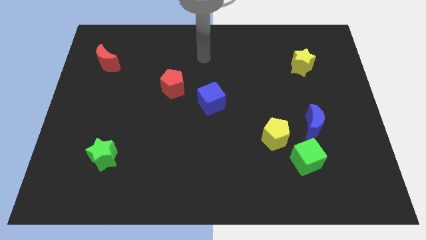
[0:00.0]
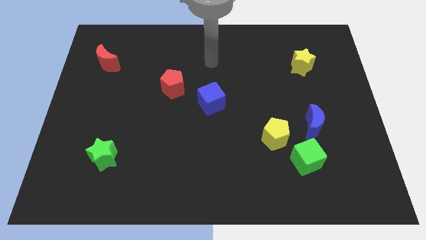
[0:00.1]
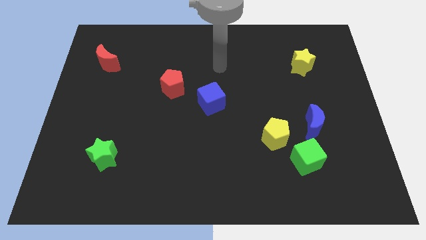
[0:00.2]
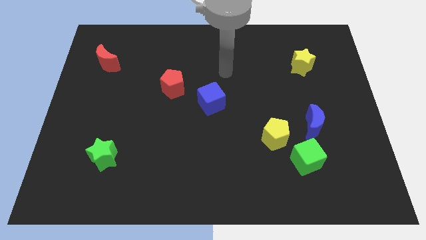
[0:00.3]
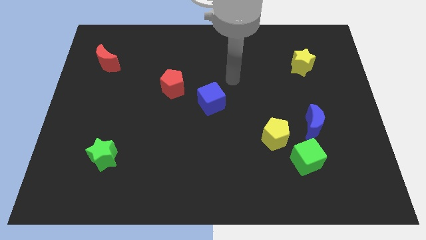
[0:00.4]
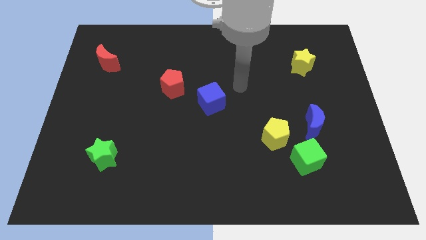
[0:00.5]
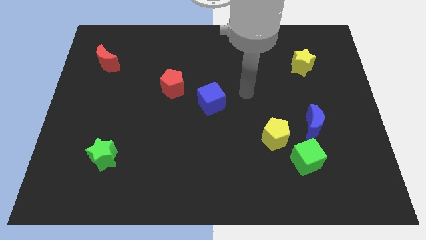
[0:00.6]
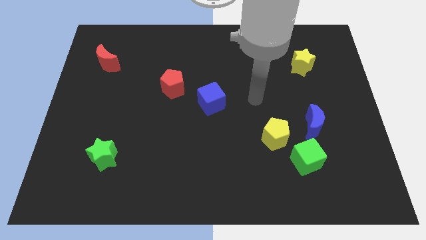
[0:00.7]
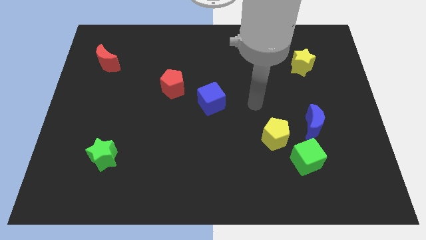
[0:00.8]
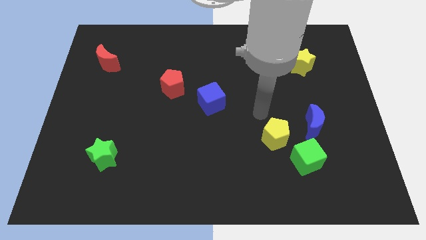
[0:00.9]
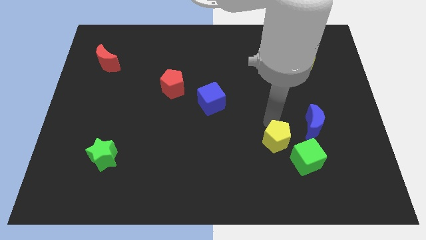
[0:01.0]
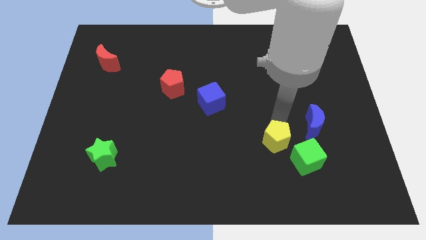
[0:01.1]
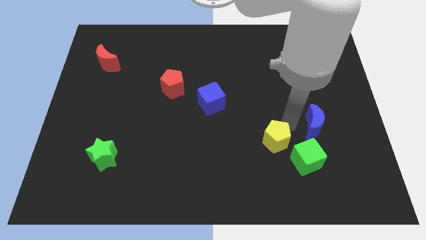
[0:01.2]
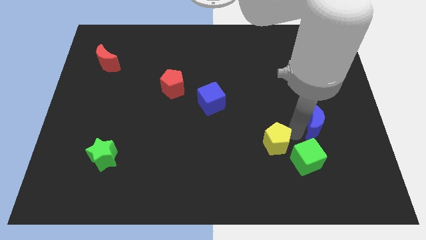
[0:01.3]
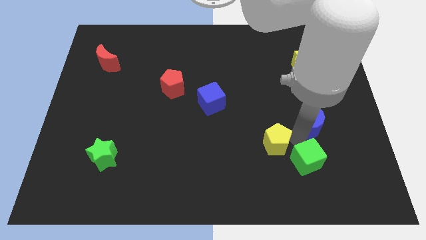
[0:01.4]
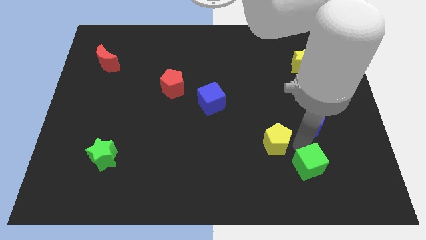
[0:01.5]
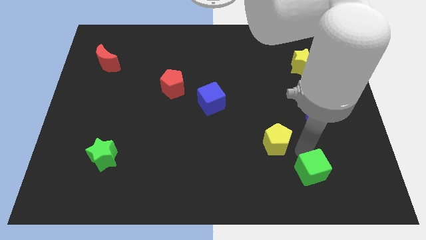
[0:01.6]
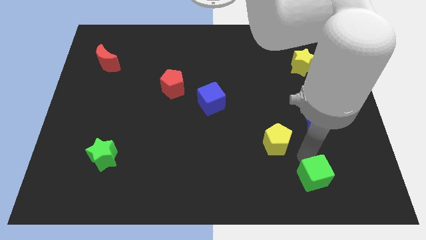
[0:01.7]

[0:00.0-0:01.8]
separate the green cube from the yellow pentagon and blue moon

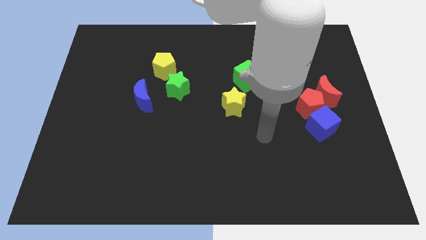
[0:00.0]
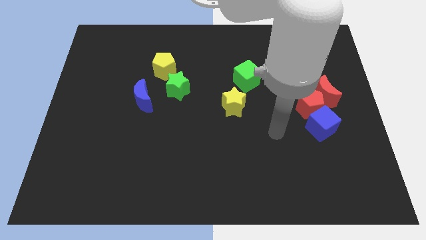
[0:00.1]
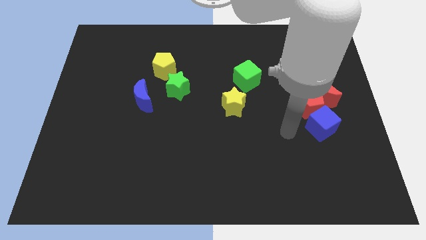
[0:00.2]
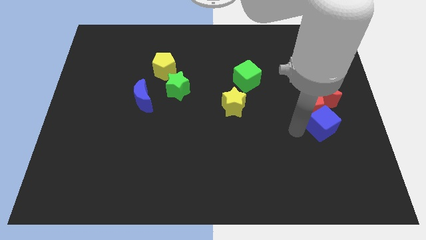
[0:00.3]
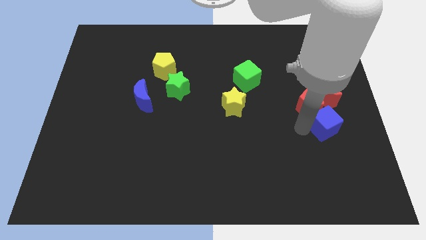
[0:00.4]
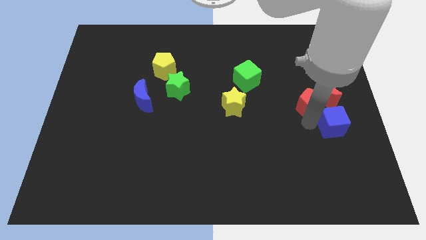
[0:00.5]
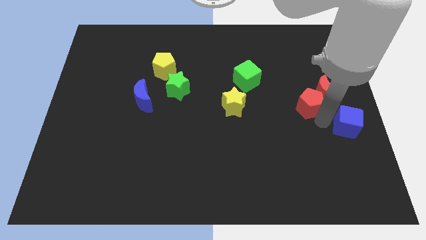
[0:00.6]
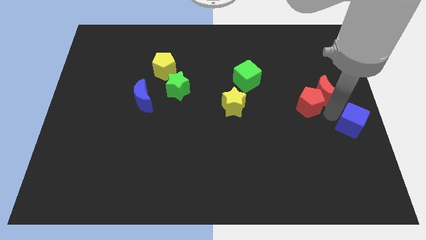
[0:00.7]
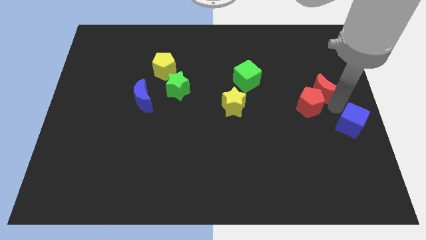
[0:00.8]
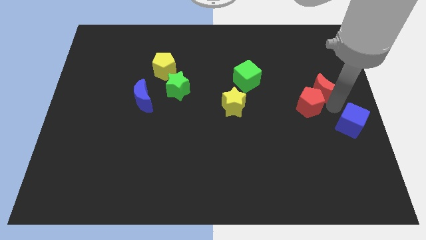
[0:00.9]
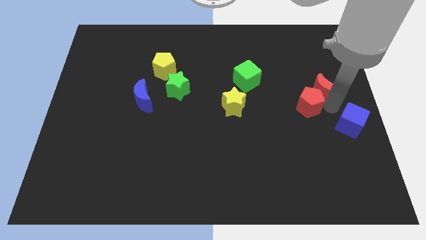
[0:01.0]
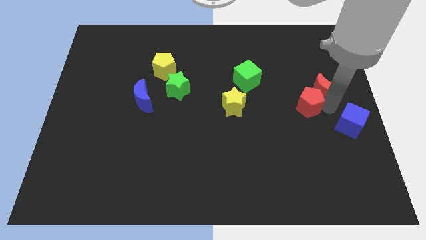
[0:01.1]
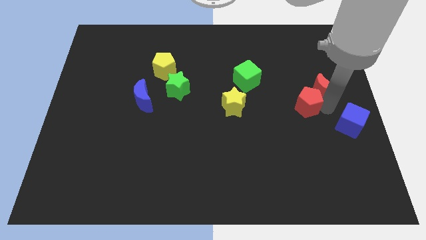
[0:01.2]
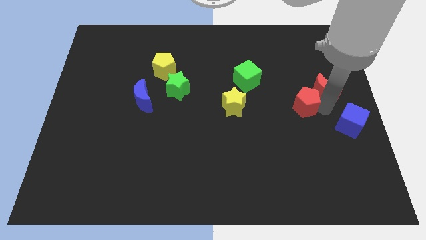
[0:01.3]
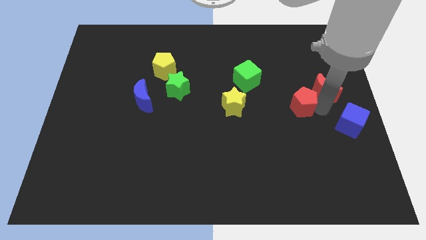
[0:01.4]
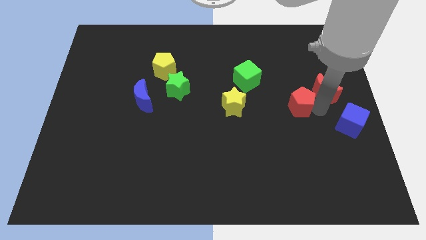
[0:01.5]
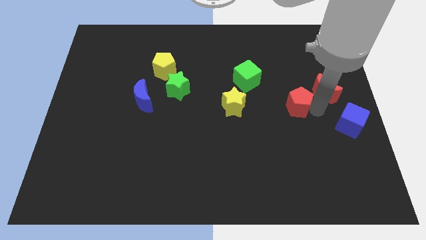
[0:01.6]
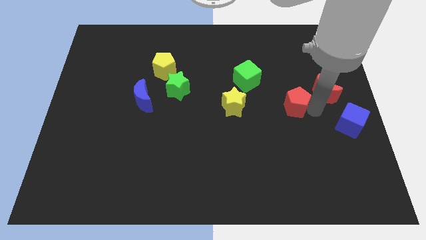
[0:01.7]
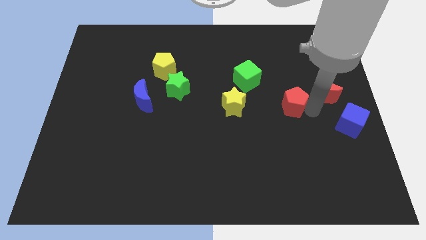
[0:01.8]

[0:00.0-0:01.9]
pull the red pentagon apart from the red moon and blue cube

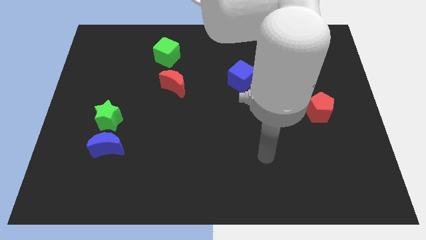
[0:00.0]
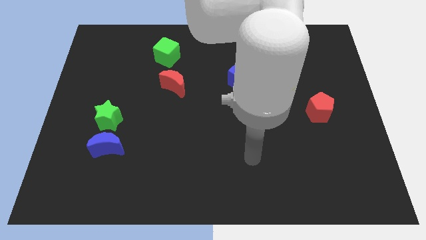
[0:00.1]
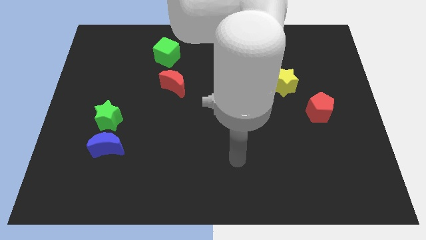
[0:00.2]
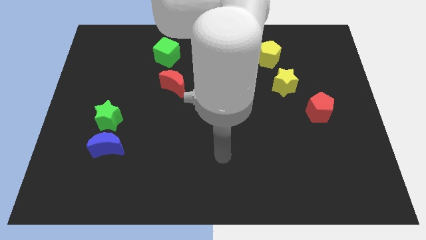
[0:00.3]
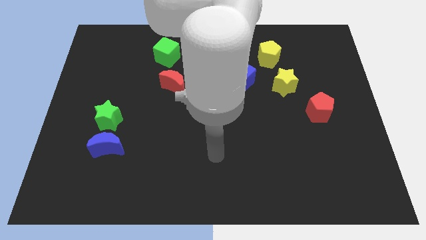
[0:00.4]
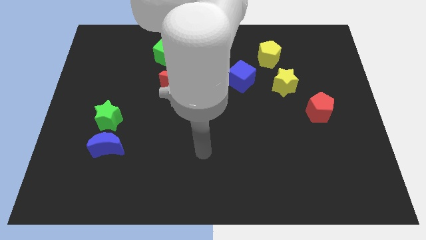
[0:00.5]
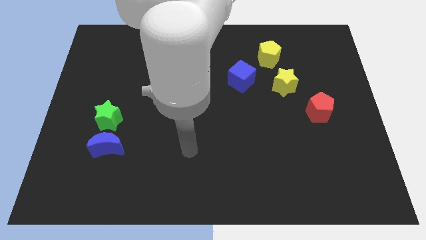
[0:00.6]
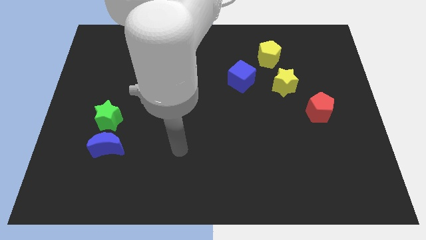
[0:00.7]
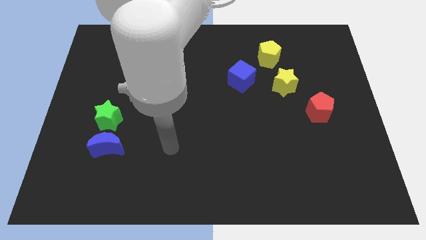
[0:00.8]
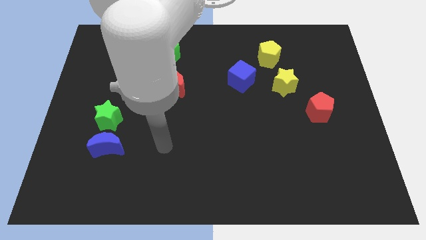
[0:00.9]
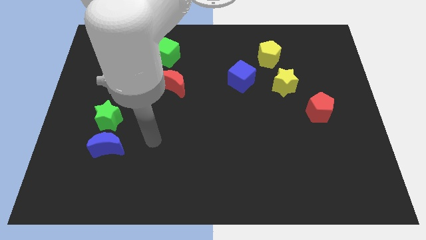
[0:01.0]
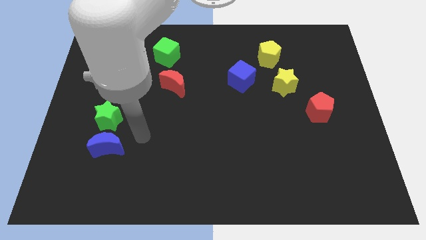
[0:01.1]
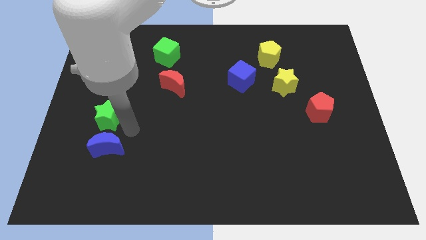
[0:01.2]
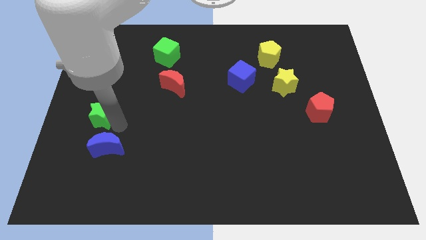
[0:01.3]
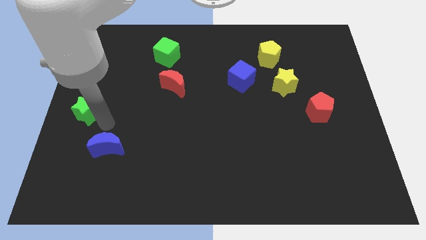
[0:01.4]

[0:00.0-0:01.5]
pull the blue moon apart from the green star

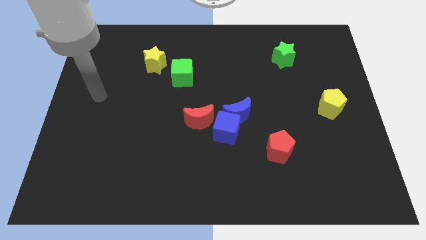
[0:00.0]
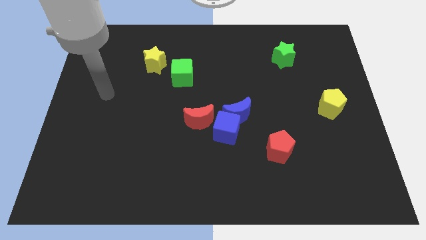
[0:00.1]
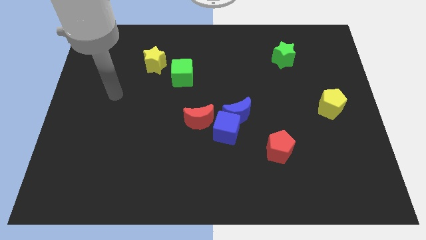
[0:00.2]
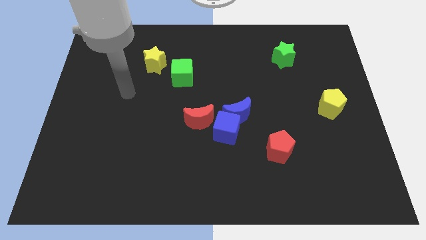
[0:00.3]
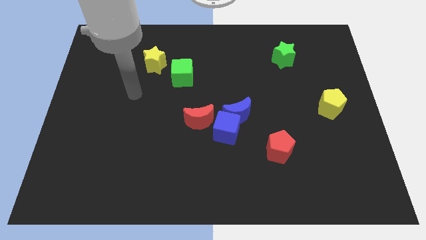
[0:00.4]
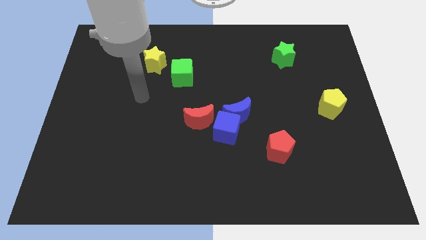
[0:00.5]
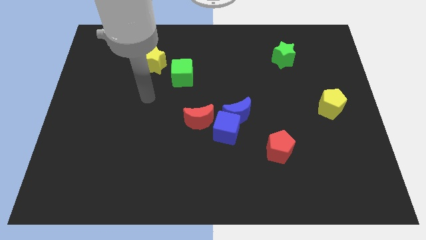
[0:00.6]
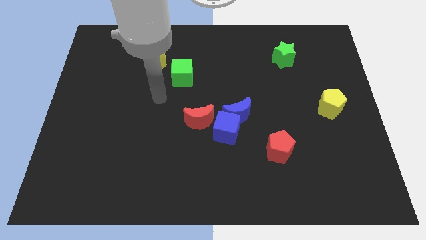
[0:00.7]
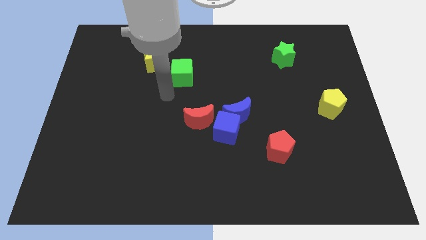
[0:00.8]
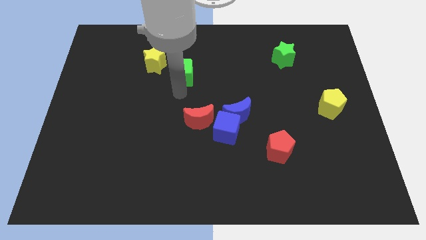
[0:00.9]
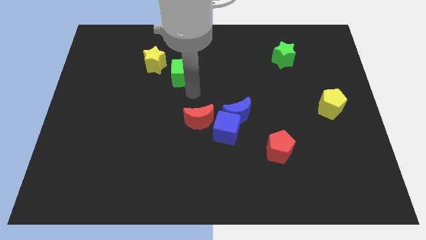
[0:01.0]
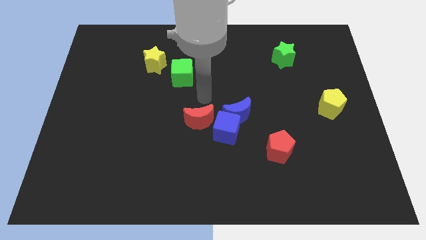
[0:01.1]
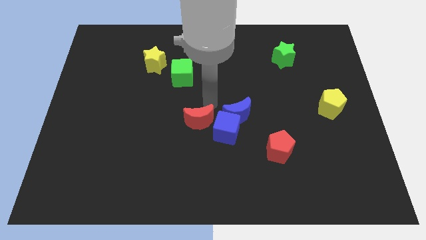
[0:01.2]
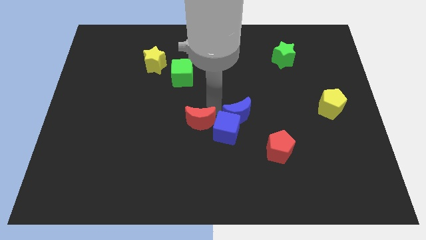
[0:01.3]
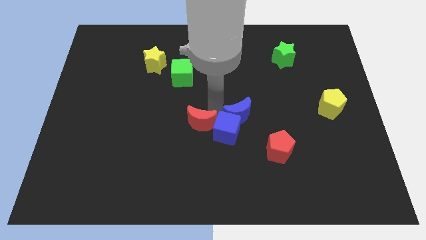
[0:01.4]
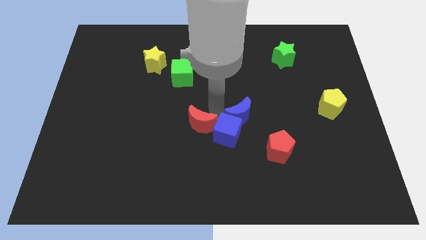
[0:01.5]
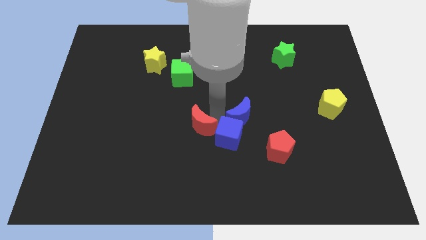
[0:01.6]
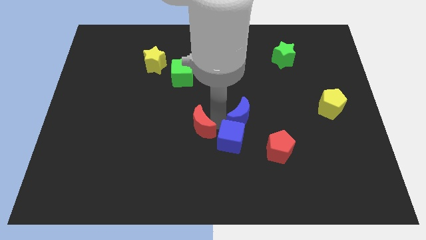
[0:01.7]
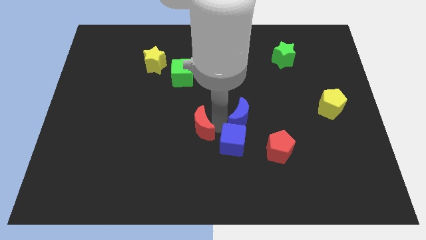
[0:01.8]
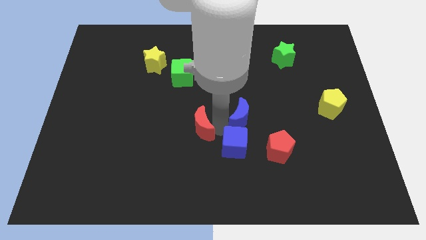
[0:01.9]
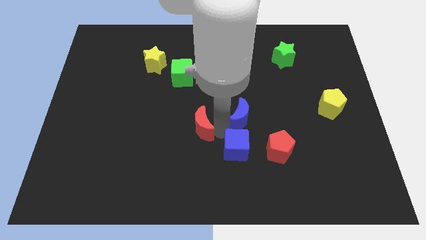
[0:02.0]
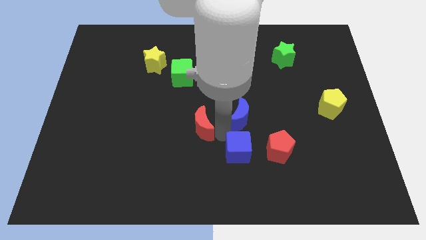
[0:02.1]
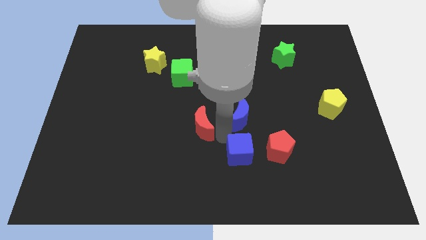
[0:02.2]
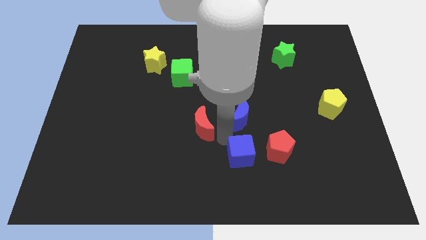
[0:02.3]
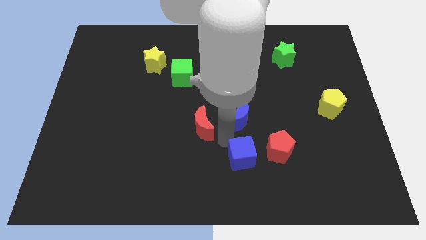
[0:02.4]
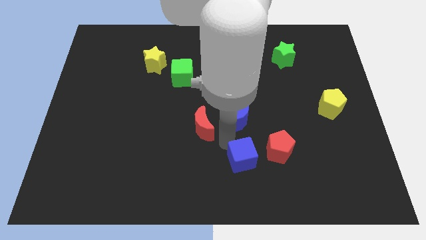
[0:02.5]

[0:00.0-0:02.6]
move the blue cube away from the blue moon and red moon

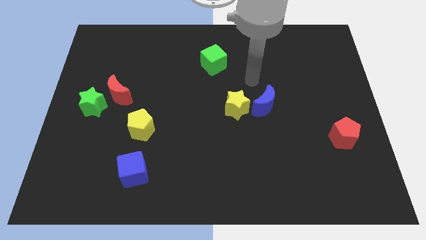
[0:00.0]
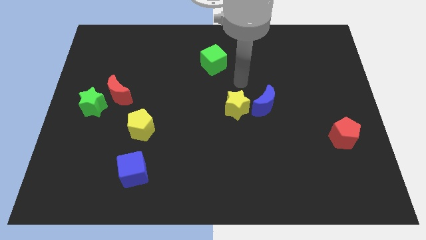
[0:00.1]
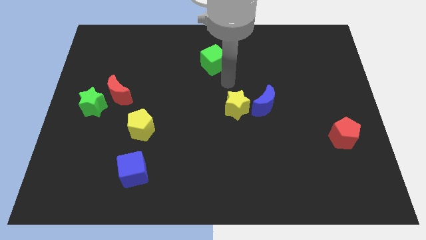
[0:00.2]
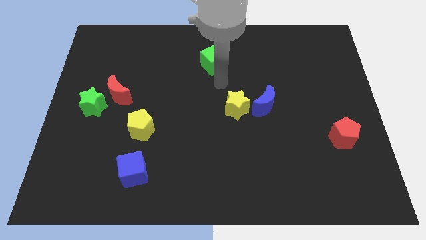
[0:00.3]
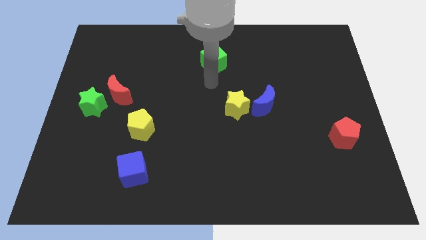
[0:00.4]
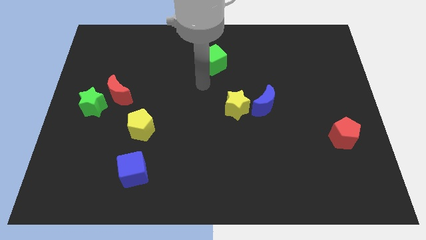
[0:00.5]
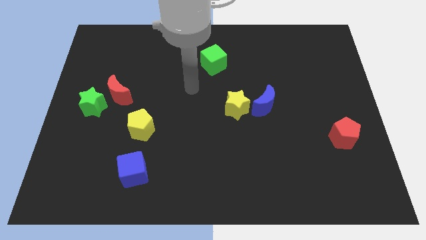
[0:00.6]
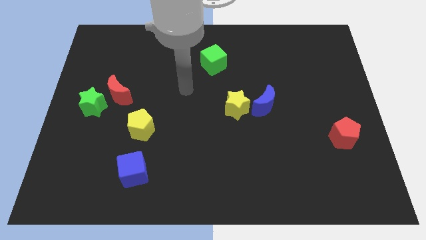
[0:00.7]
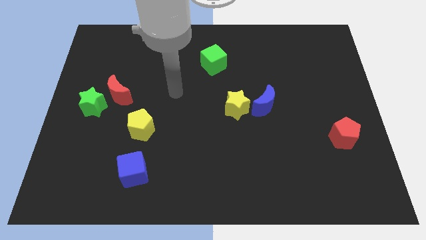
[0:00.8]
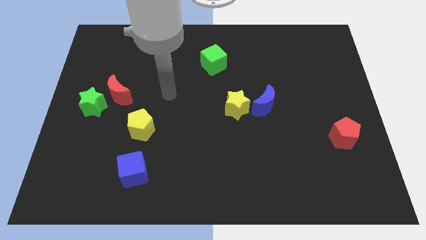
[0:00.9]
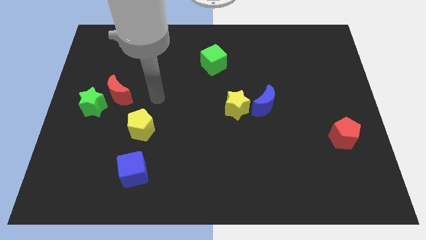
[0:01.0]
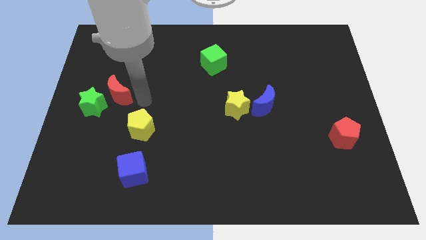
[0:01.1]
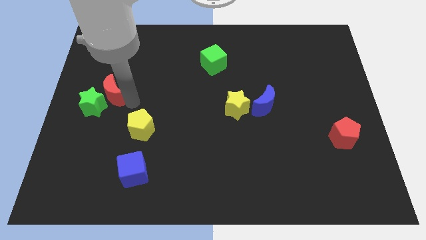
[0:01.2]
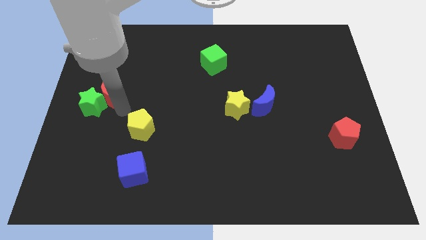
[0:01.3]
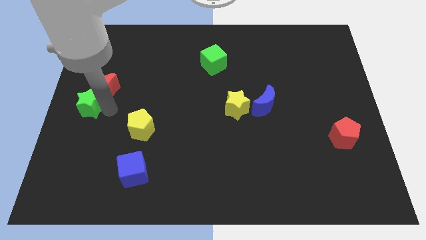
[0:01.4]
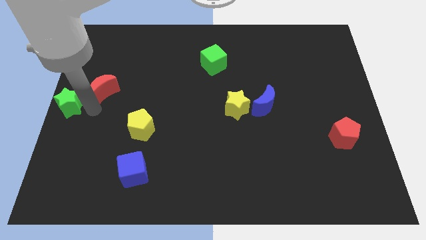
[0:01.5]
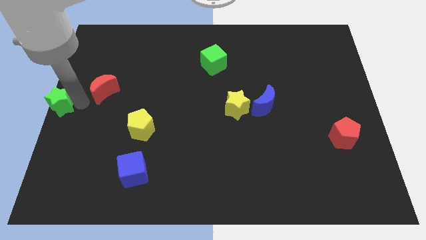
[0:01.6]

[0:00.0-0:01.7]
separate the red moon from the green star
